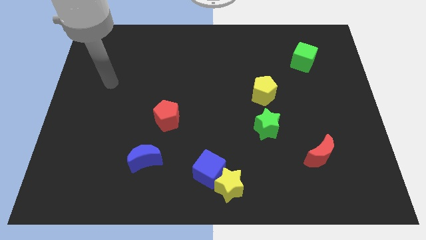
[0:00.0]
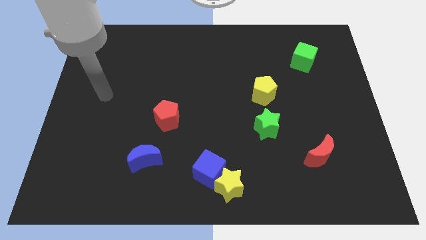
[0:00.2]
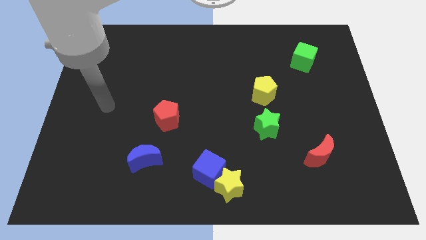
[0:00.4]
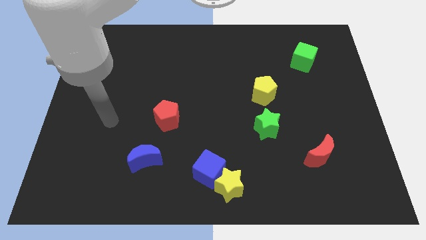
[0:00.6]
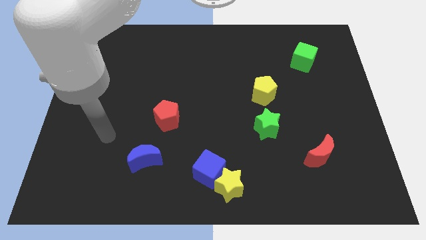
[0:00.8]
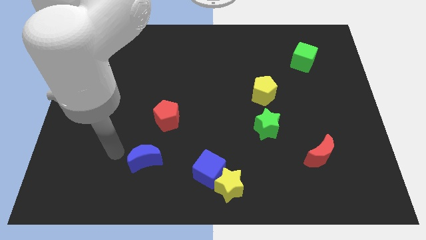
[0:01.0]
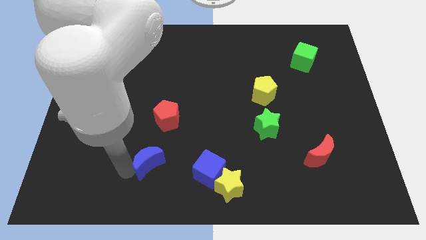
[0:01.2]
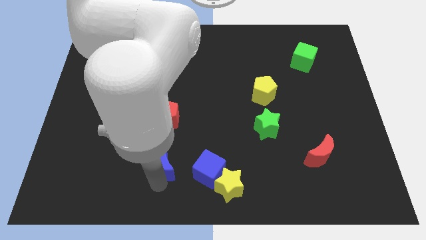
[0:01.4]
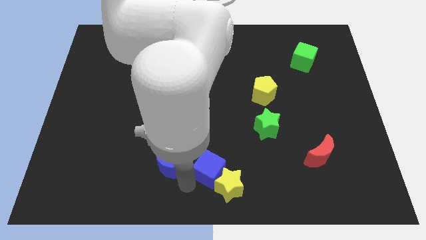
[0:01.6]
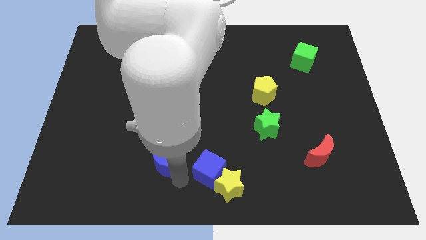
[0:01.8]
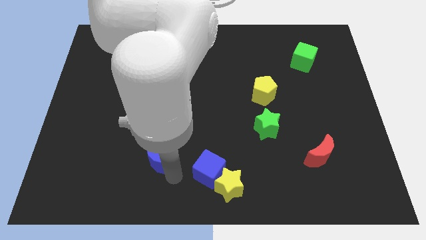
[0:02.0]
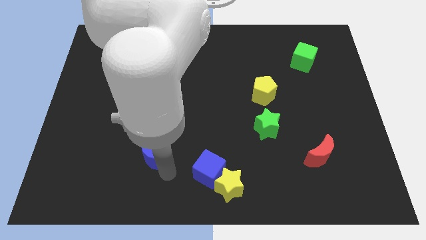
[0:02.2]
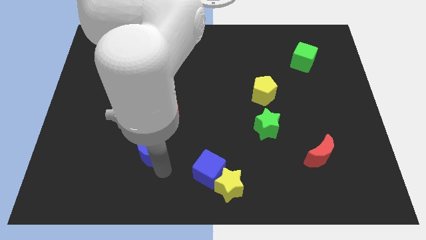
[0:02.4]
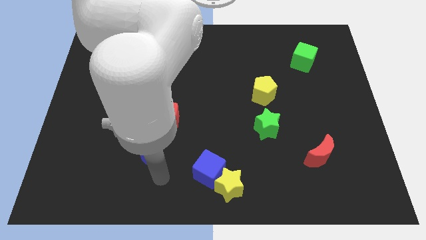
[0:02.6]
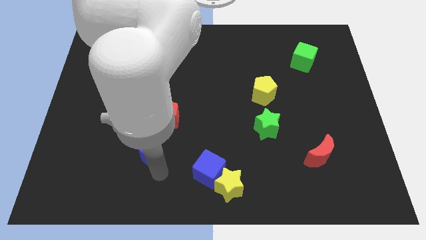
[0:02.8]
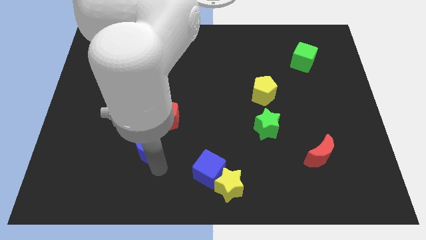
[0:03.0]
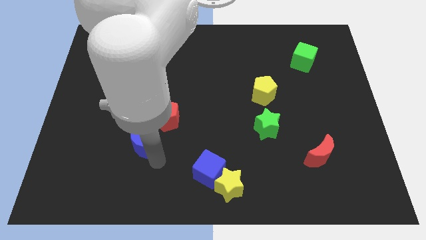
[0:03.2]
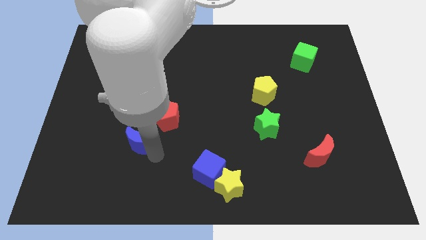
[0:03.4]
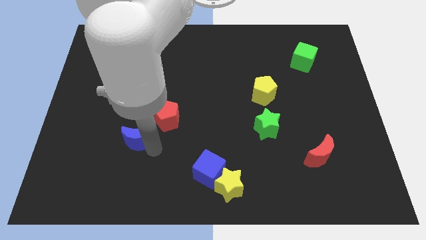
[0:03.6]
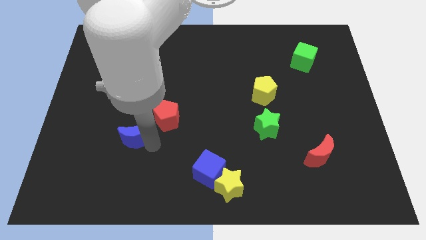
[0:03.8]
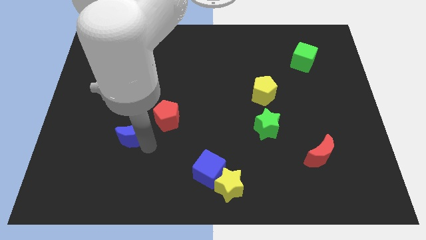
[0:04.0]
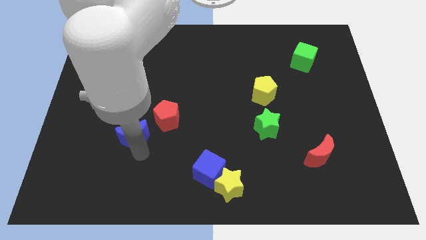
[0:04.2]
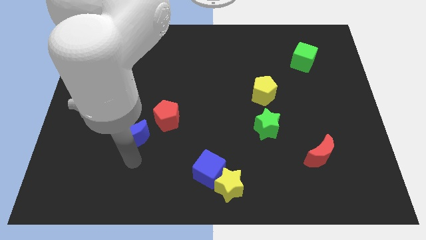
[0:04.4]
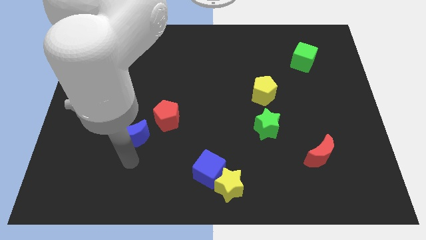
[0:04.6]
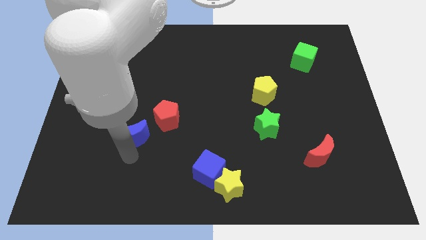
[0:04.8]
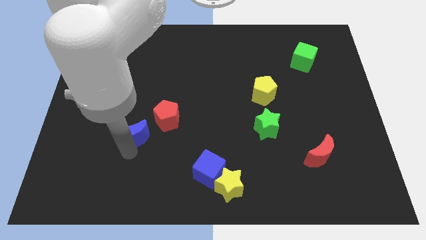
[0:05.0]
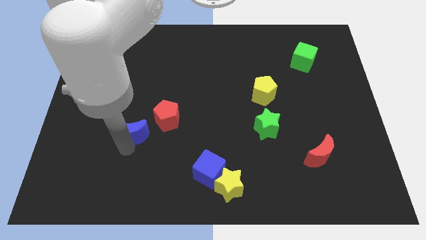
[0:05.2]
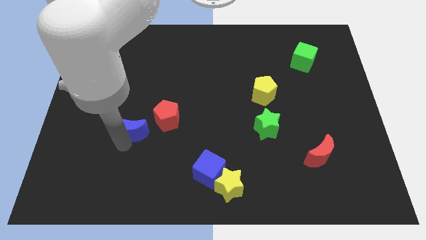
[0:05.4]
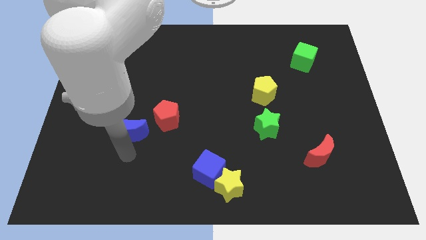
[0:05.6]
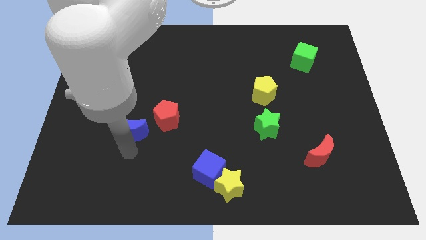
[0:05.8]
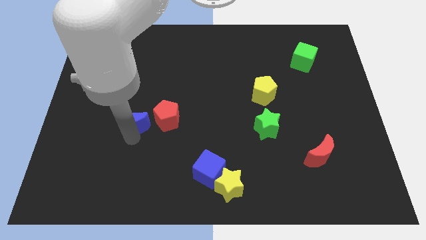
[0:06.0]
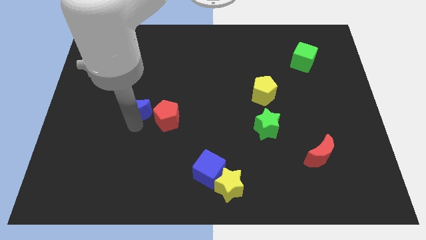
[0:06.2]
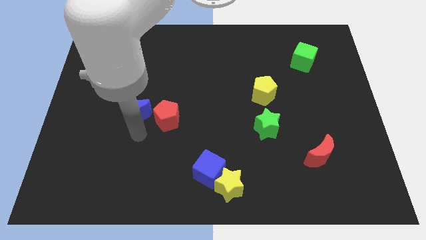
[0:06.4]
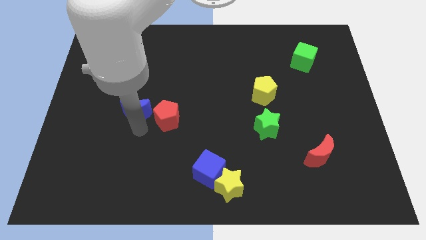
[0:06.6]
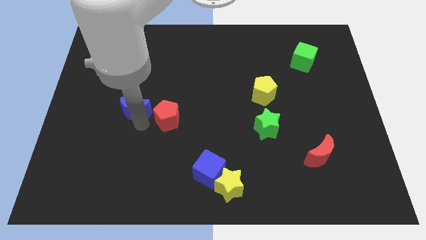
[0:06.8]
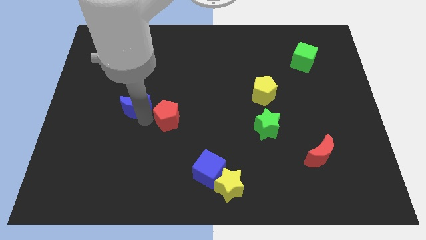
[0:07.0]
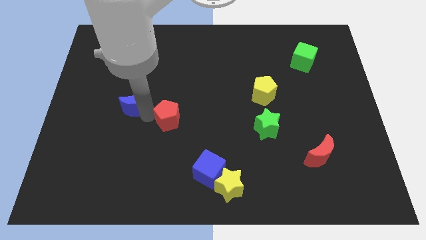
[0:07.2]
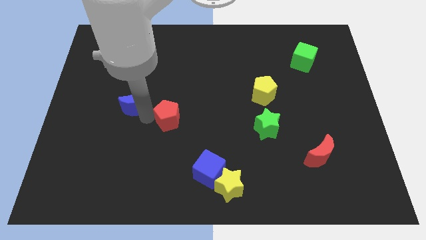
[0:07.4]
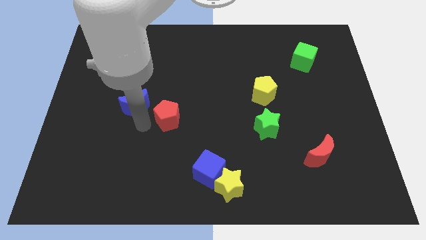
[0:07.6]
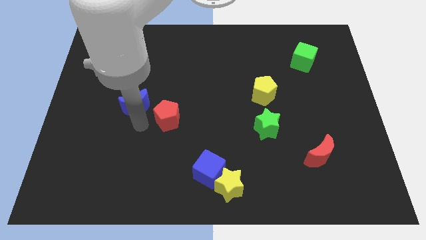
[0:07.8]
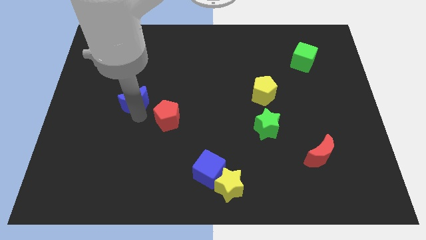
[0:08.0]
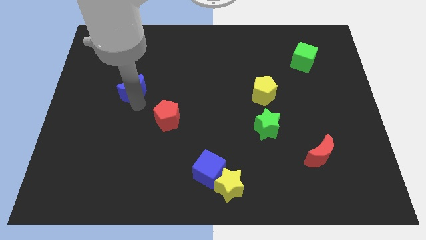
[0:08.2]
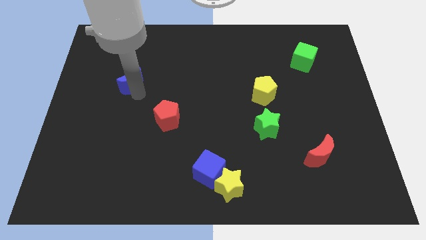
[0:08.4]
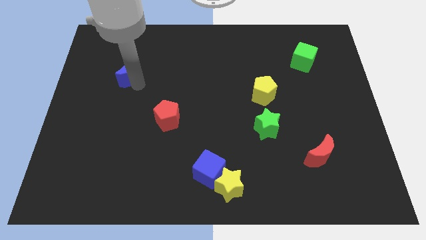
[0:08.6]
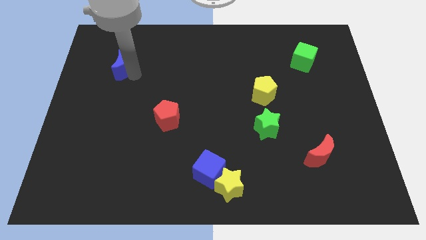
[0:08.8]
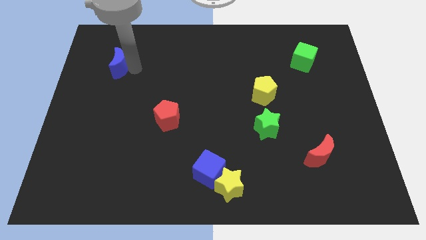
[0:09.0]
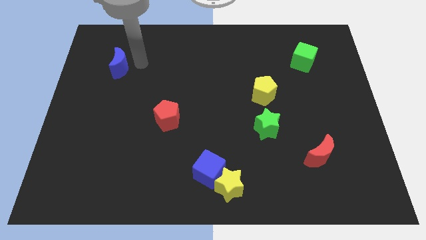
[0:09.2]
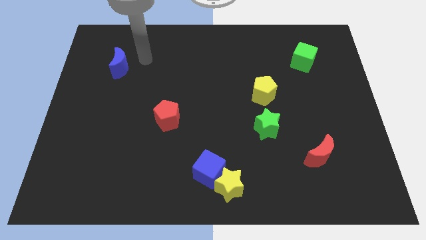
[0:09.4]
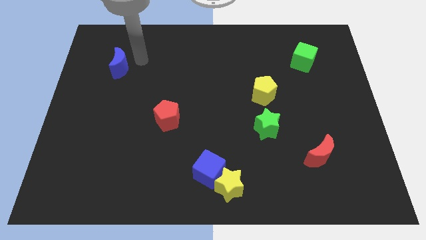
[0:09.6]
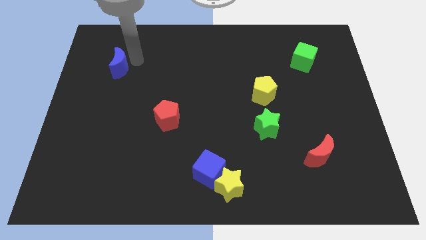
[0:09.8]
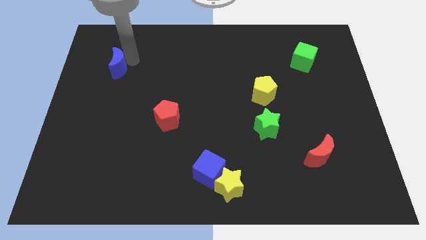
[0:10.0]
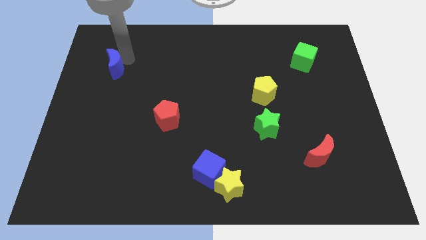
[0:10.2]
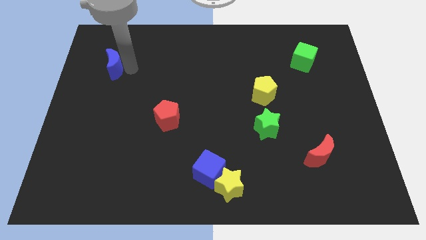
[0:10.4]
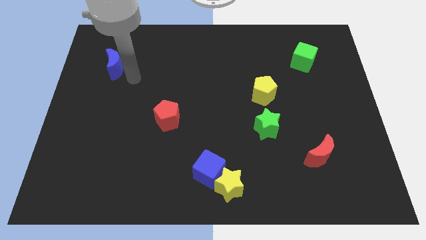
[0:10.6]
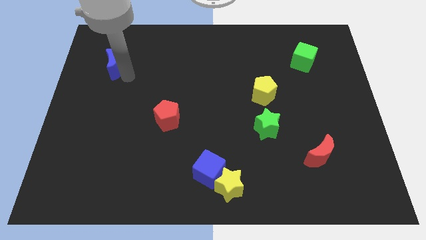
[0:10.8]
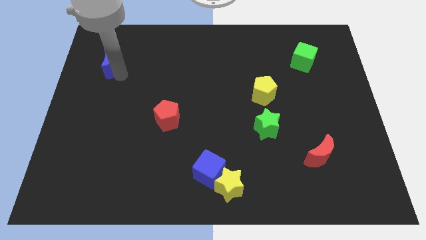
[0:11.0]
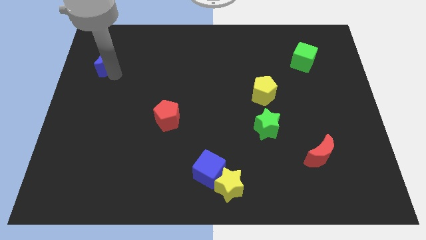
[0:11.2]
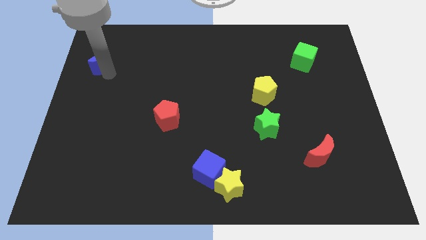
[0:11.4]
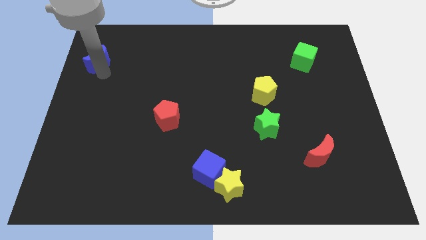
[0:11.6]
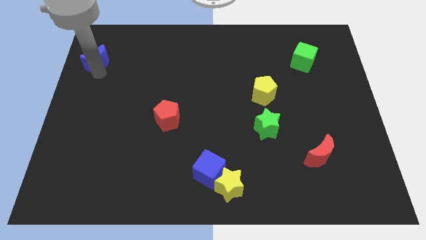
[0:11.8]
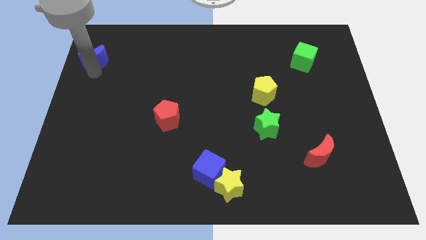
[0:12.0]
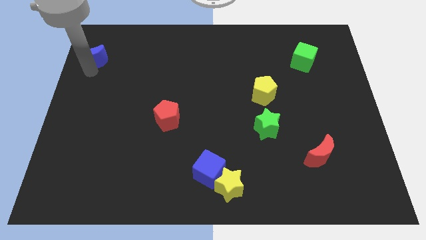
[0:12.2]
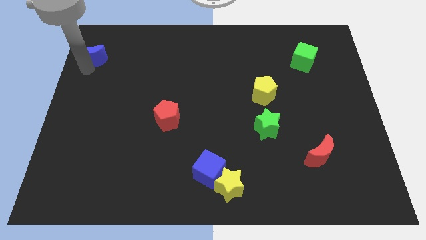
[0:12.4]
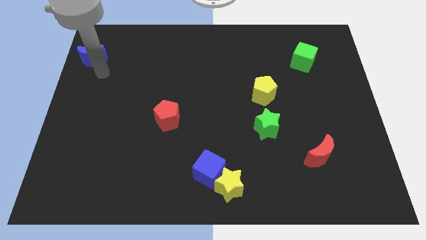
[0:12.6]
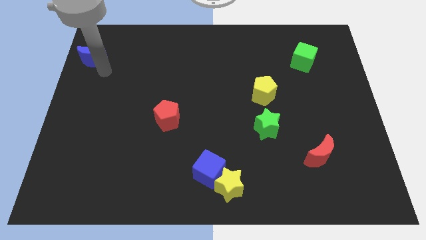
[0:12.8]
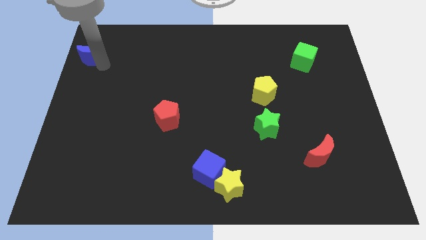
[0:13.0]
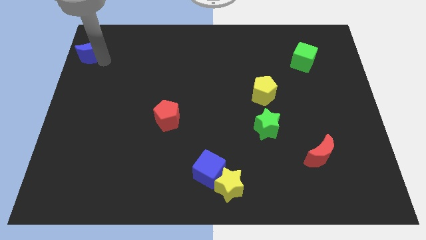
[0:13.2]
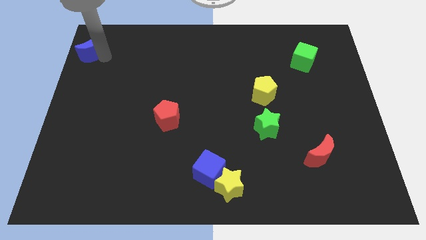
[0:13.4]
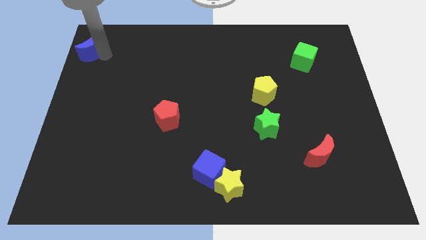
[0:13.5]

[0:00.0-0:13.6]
put the blue moon to the upper left corner
